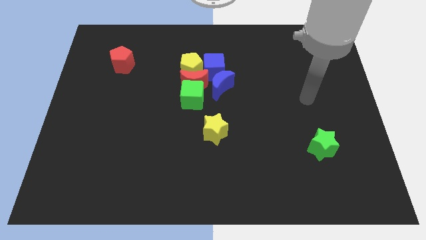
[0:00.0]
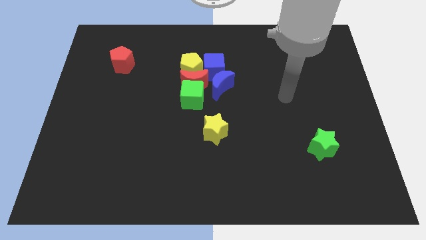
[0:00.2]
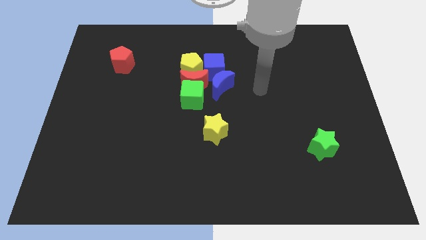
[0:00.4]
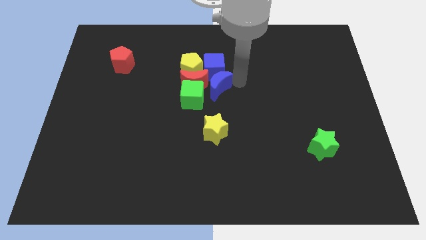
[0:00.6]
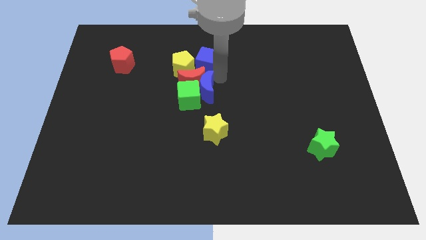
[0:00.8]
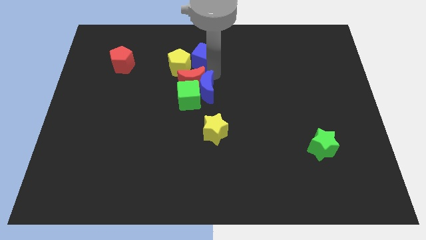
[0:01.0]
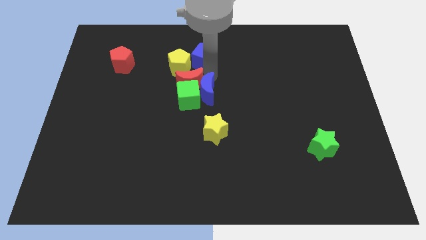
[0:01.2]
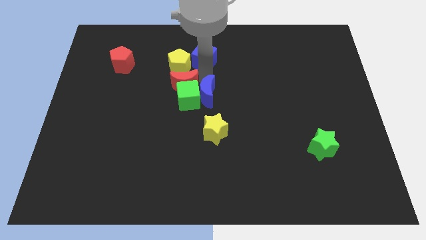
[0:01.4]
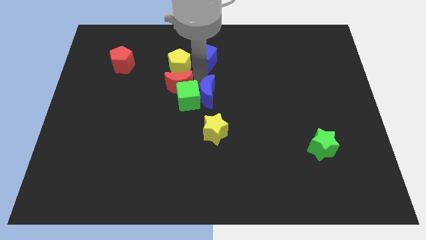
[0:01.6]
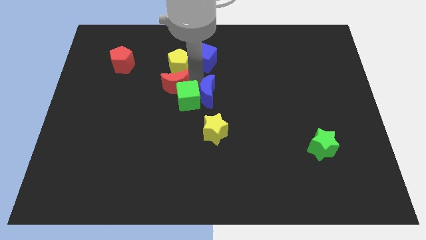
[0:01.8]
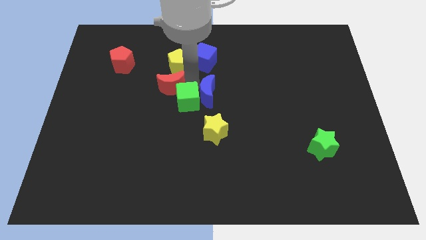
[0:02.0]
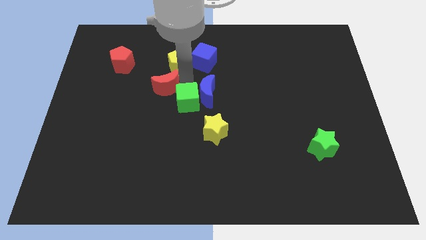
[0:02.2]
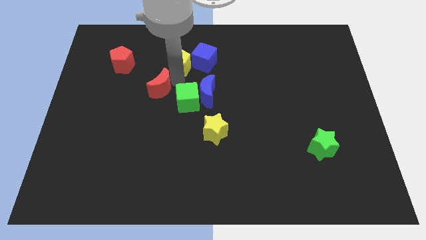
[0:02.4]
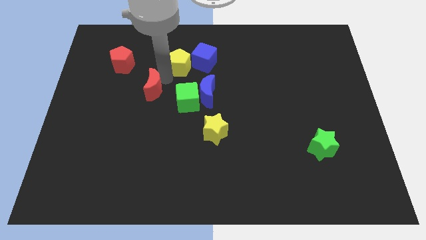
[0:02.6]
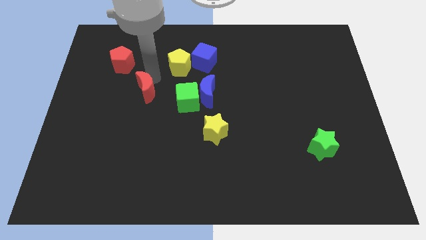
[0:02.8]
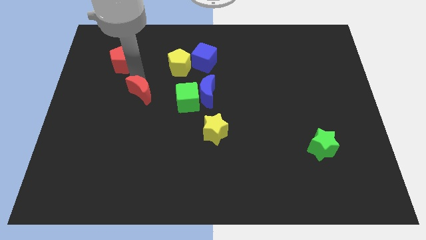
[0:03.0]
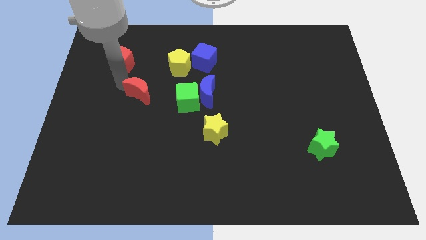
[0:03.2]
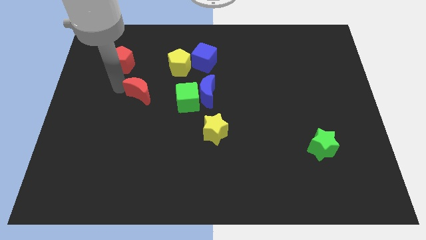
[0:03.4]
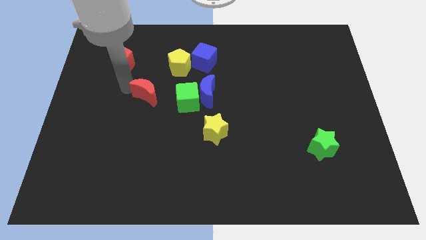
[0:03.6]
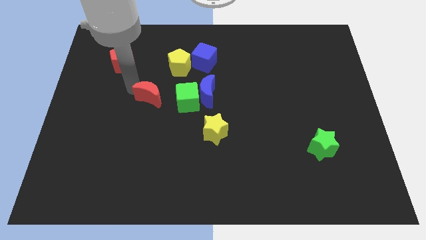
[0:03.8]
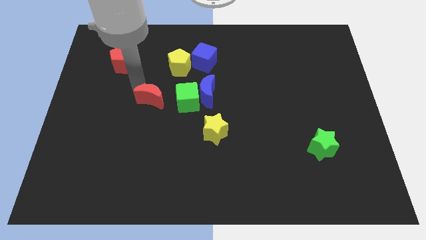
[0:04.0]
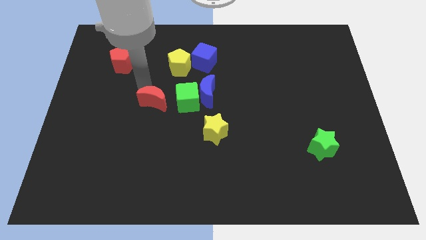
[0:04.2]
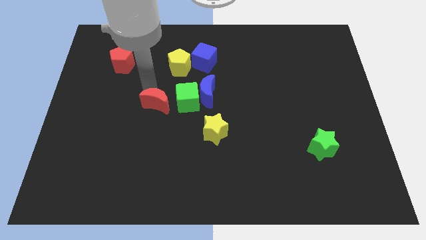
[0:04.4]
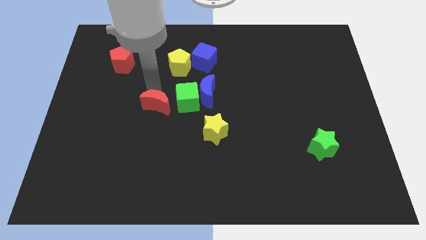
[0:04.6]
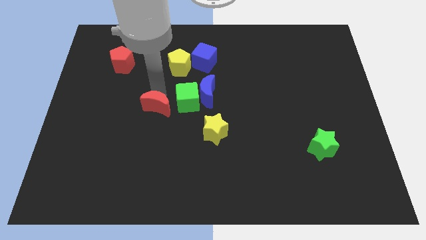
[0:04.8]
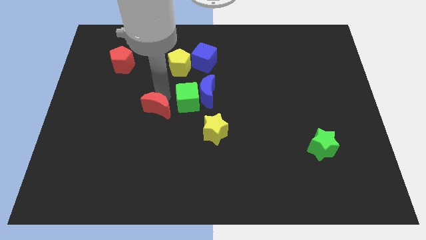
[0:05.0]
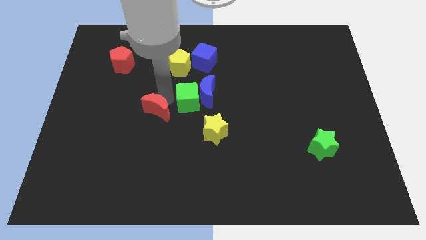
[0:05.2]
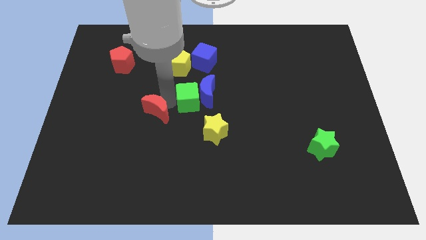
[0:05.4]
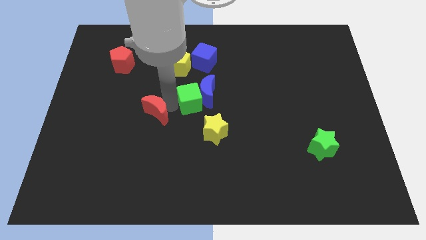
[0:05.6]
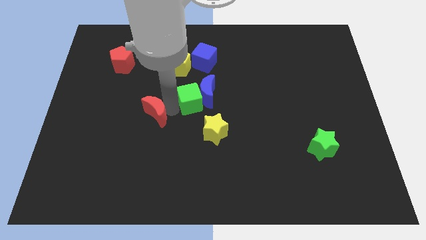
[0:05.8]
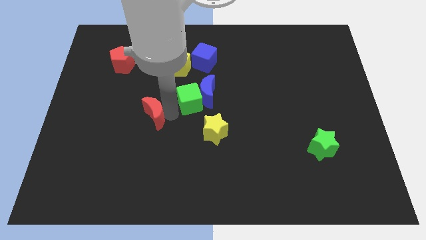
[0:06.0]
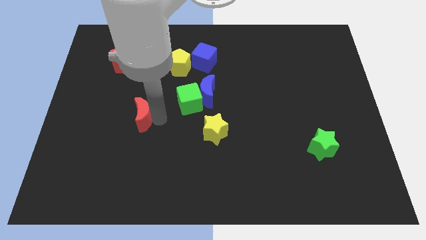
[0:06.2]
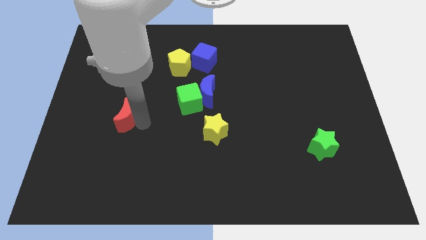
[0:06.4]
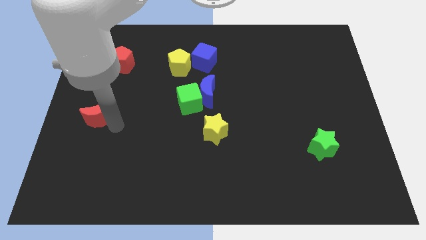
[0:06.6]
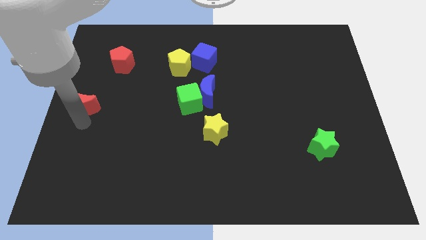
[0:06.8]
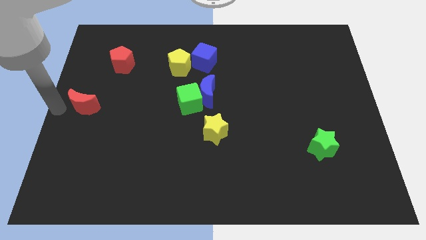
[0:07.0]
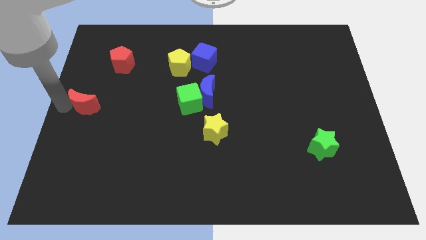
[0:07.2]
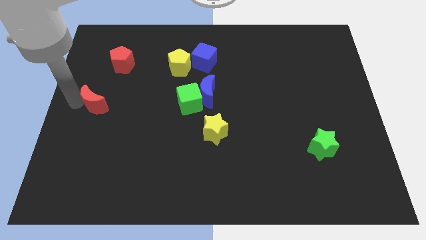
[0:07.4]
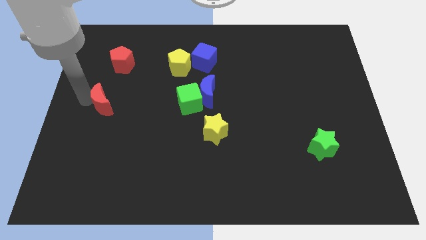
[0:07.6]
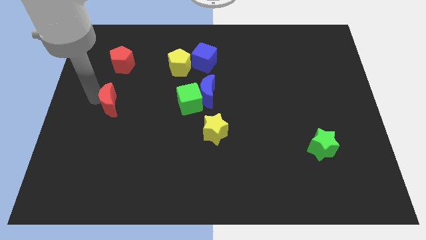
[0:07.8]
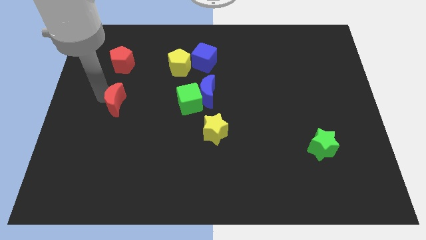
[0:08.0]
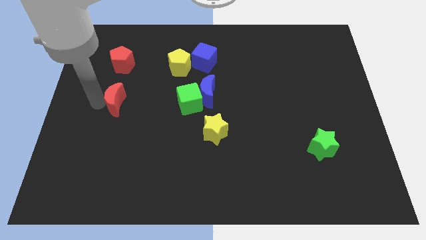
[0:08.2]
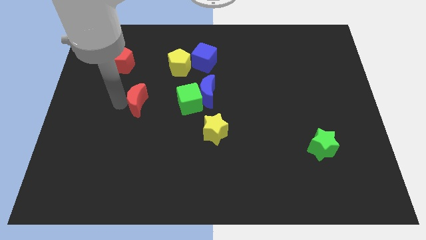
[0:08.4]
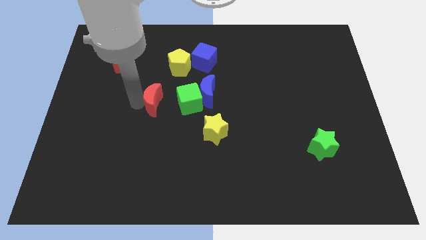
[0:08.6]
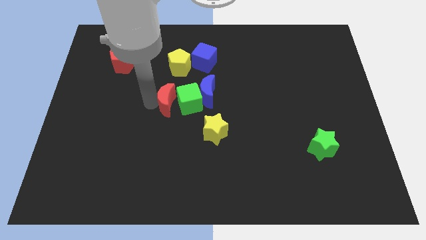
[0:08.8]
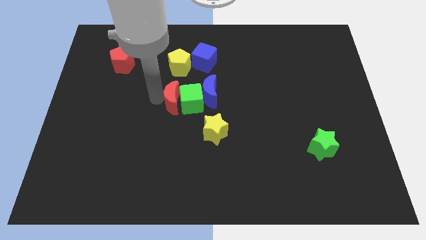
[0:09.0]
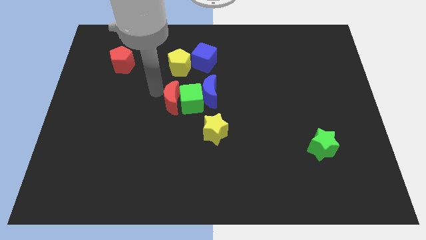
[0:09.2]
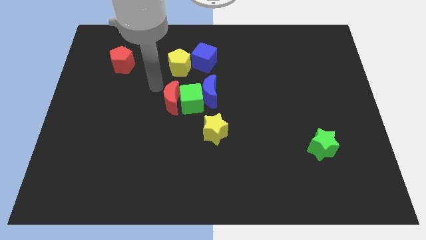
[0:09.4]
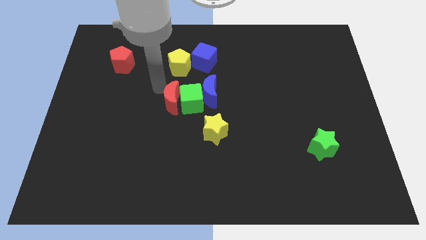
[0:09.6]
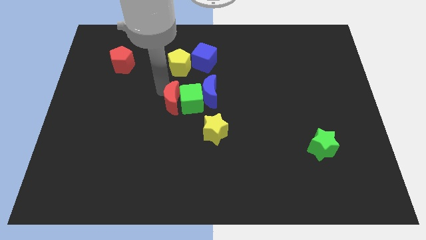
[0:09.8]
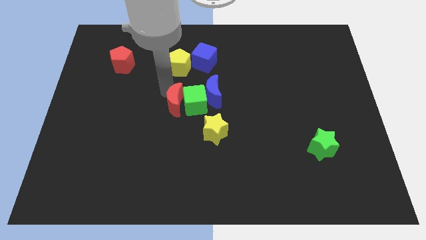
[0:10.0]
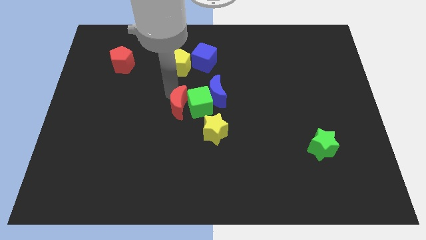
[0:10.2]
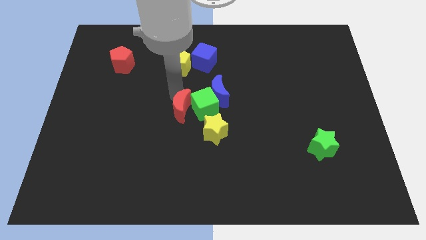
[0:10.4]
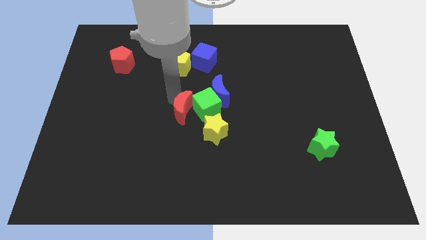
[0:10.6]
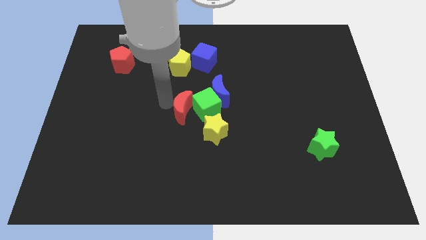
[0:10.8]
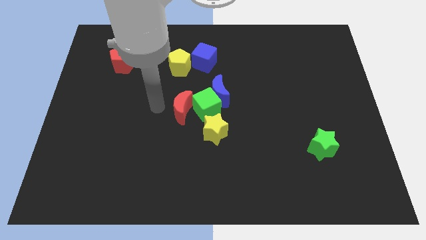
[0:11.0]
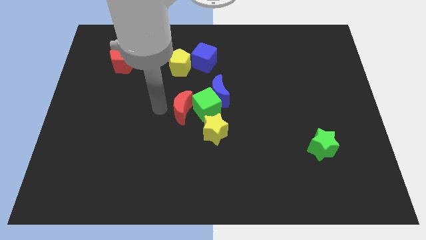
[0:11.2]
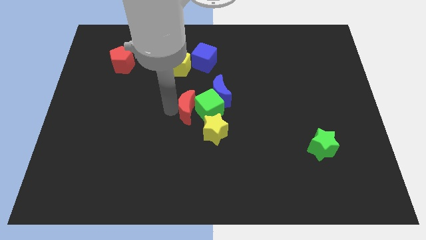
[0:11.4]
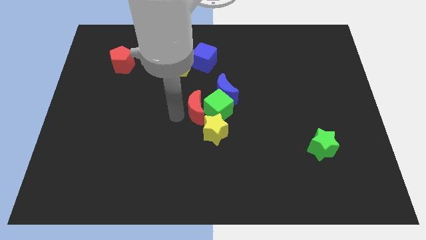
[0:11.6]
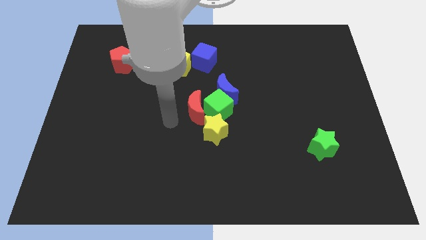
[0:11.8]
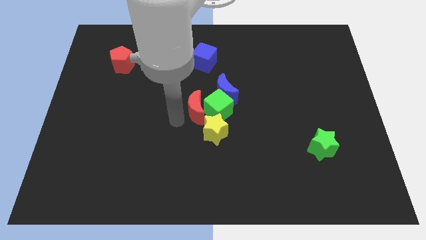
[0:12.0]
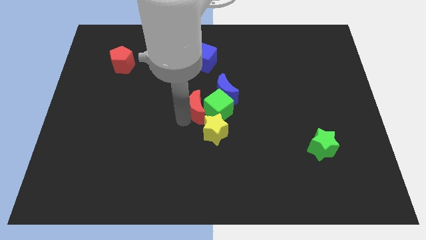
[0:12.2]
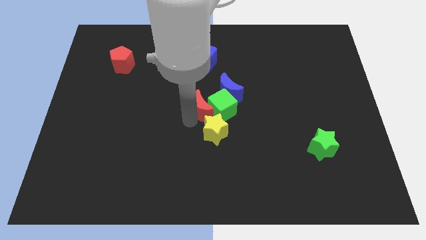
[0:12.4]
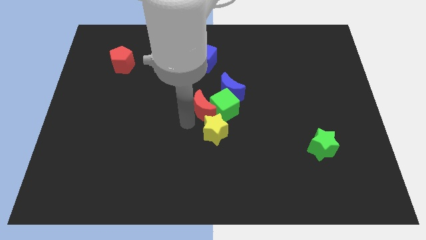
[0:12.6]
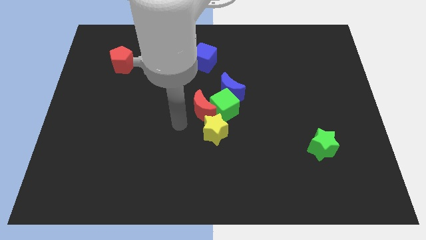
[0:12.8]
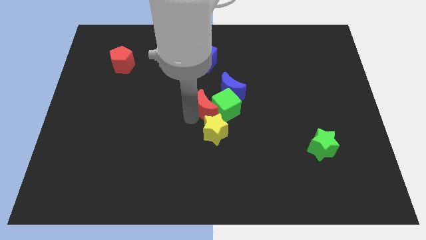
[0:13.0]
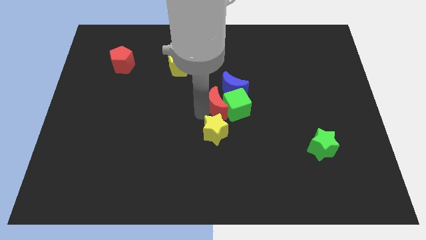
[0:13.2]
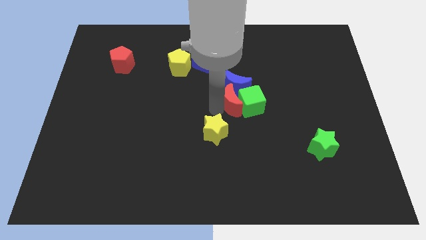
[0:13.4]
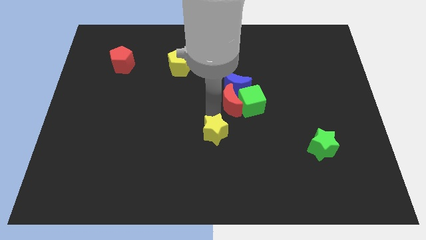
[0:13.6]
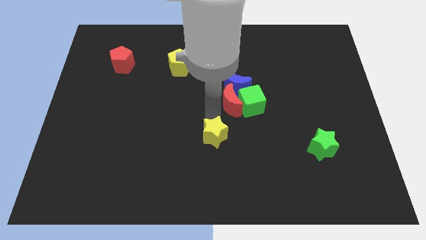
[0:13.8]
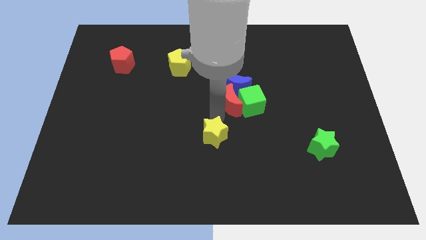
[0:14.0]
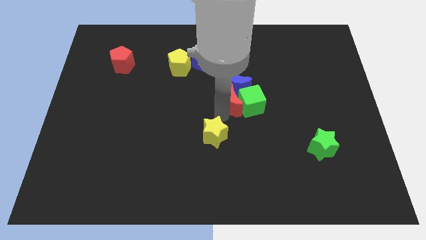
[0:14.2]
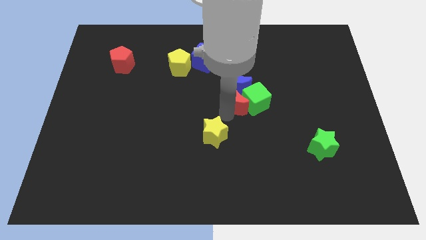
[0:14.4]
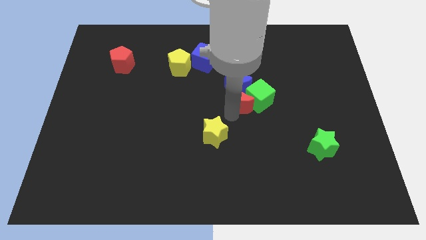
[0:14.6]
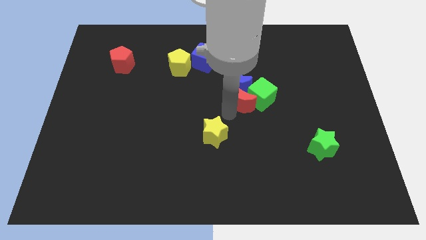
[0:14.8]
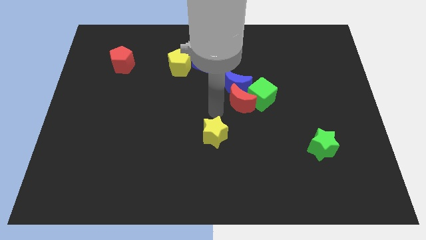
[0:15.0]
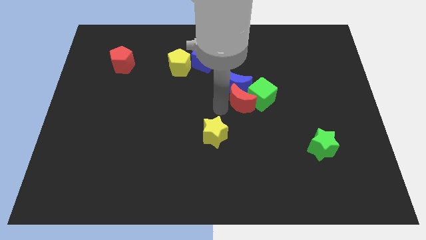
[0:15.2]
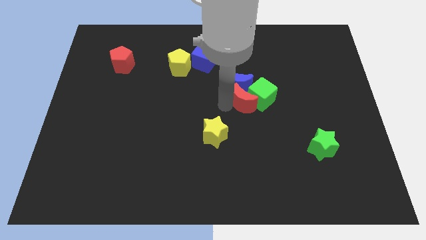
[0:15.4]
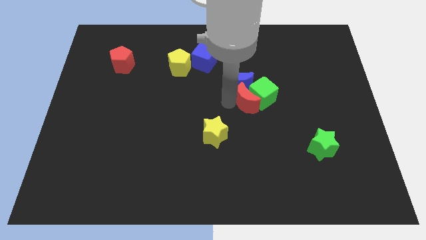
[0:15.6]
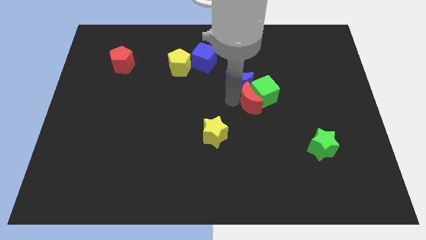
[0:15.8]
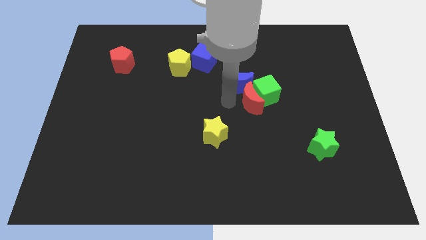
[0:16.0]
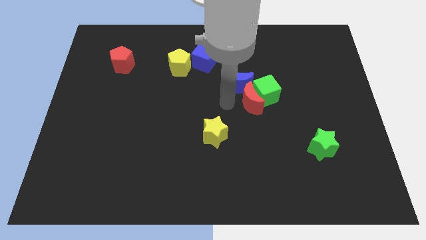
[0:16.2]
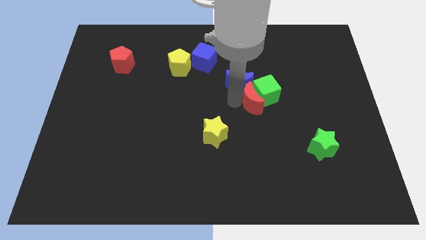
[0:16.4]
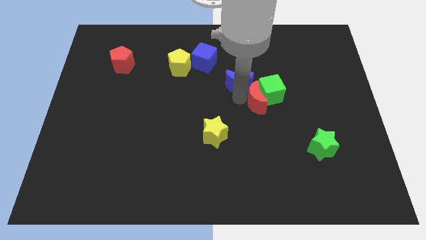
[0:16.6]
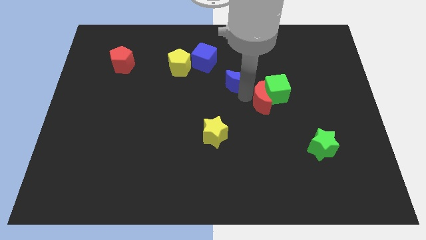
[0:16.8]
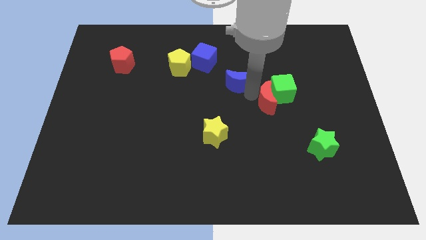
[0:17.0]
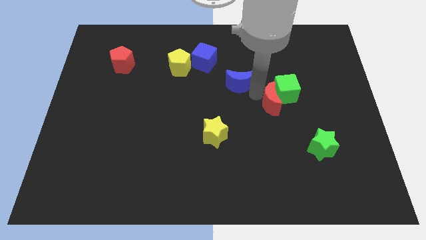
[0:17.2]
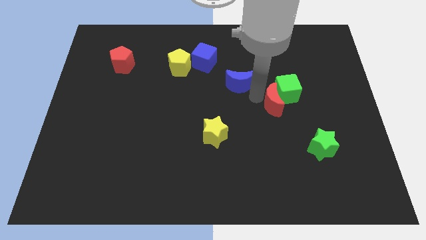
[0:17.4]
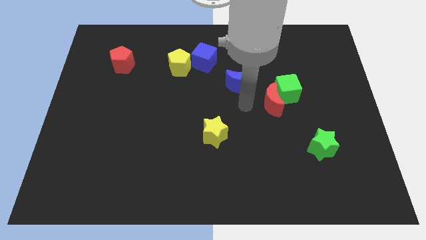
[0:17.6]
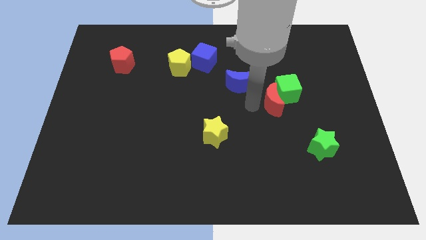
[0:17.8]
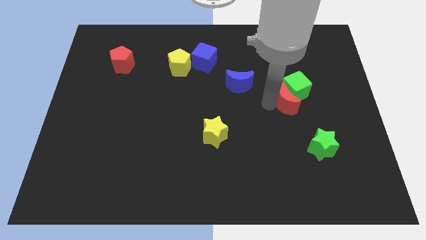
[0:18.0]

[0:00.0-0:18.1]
slide the red moon right
